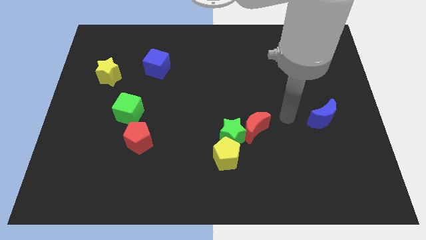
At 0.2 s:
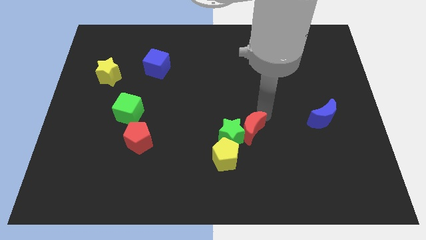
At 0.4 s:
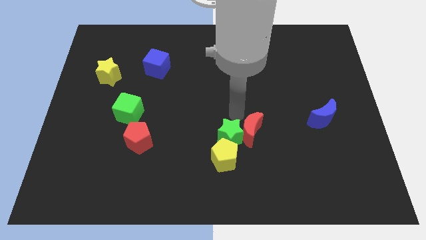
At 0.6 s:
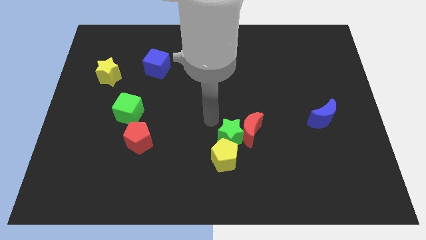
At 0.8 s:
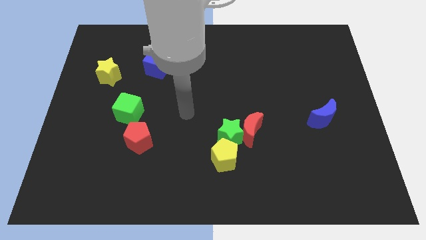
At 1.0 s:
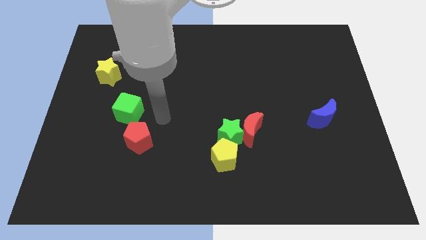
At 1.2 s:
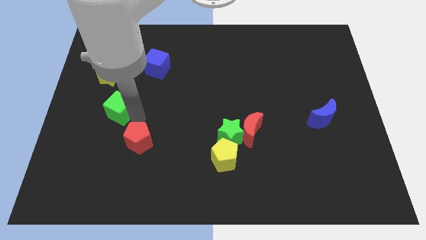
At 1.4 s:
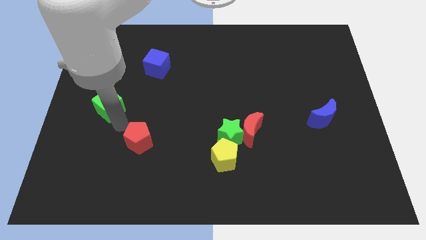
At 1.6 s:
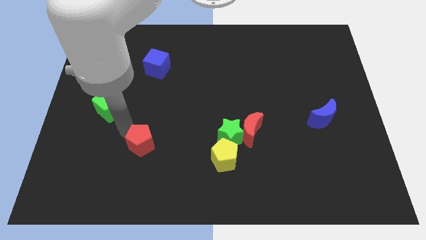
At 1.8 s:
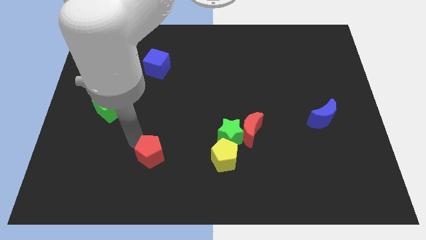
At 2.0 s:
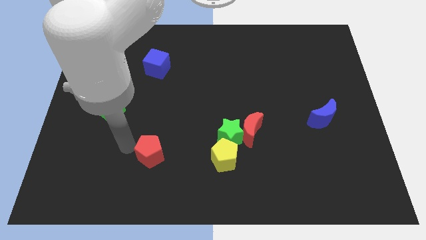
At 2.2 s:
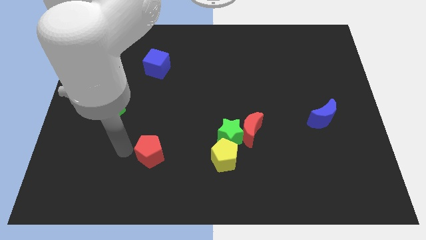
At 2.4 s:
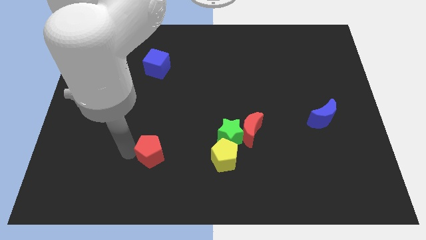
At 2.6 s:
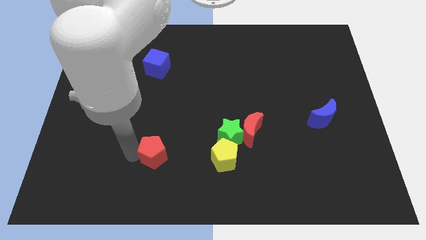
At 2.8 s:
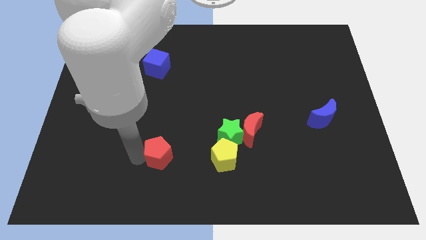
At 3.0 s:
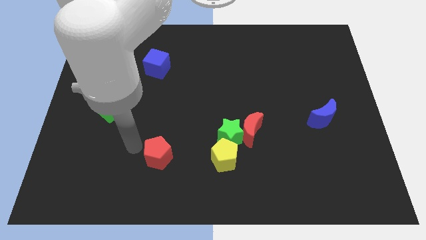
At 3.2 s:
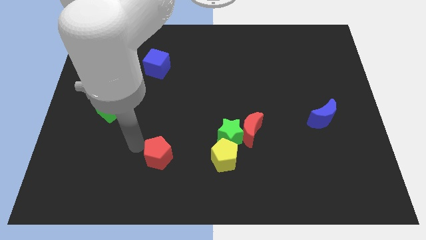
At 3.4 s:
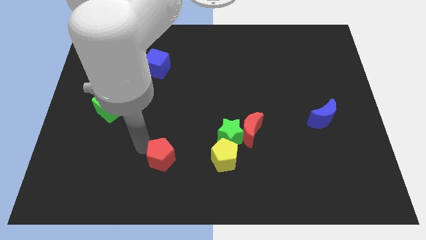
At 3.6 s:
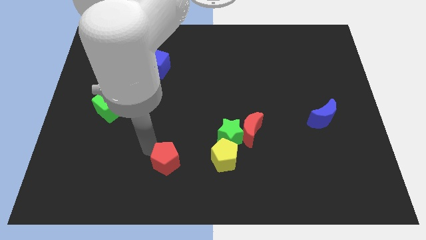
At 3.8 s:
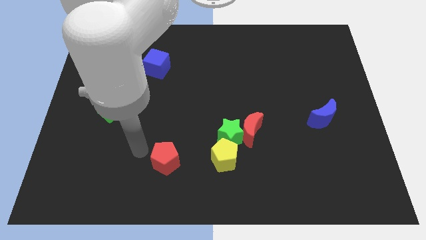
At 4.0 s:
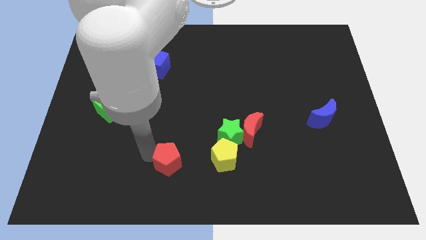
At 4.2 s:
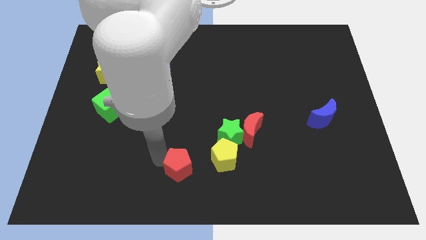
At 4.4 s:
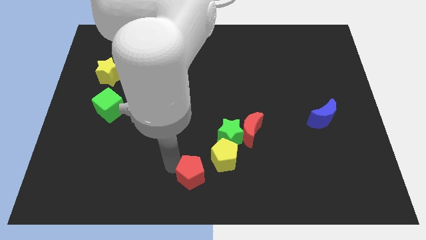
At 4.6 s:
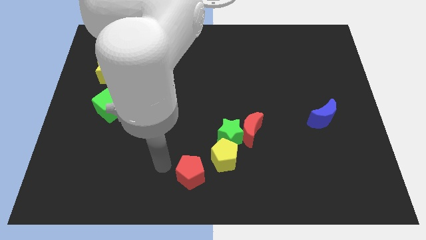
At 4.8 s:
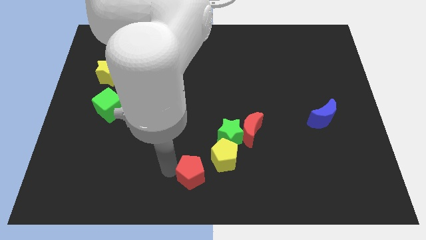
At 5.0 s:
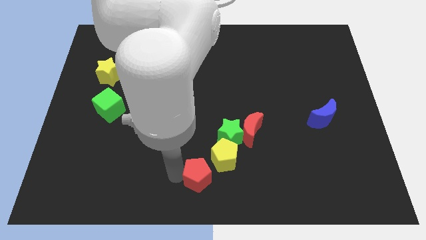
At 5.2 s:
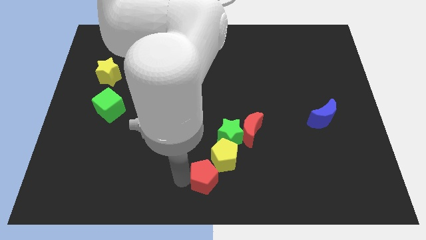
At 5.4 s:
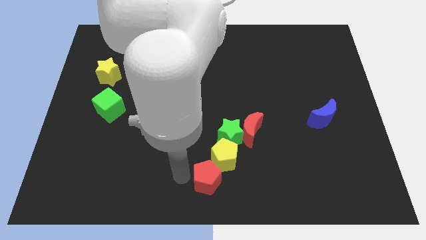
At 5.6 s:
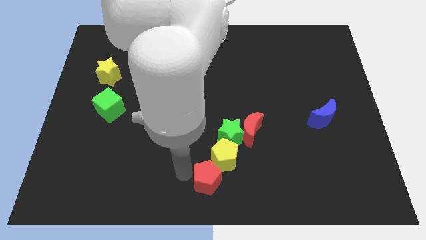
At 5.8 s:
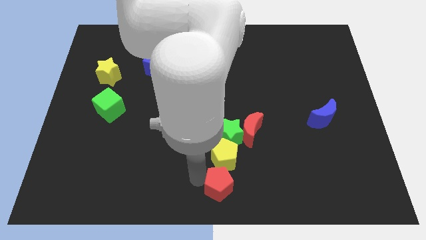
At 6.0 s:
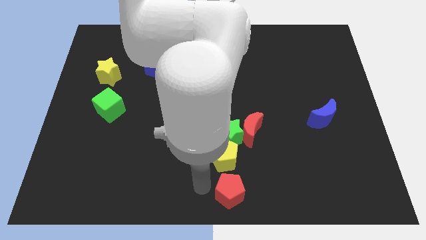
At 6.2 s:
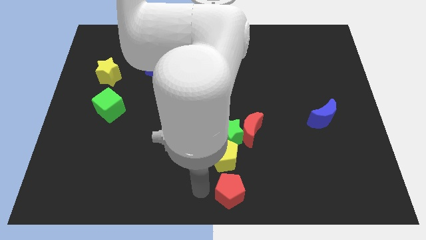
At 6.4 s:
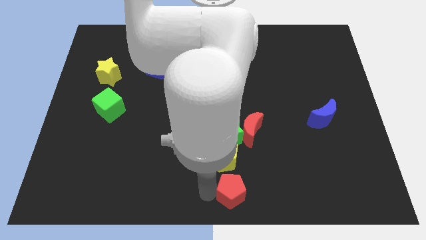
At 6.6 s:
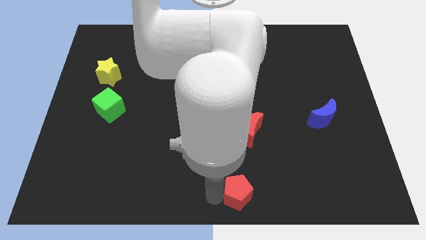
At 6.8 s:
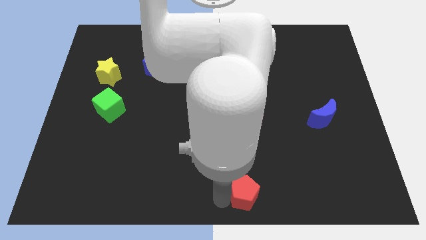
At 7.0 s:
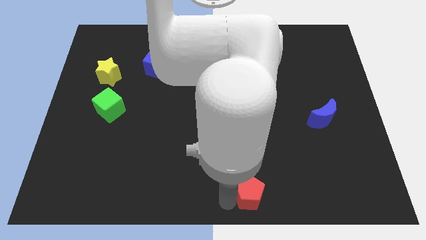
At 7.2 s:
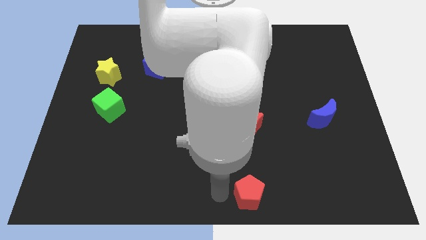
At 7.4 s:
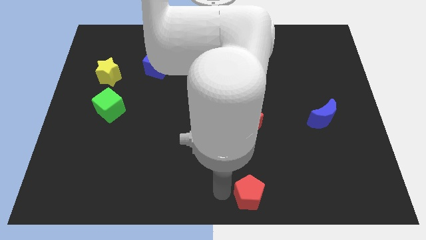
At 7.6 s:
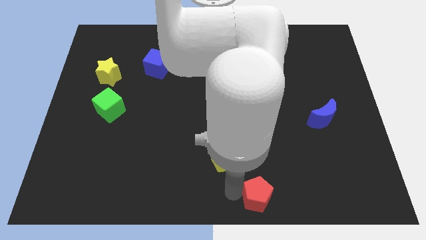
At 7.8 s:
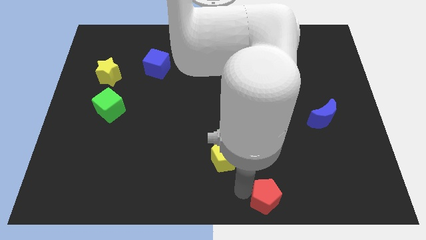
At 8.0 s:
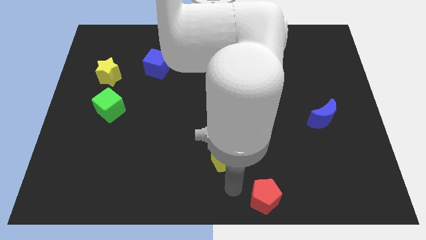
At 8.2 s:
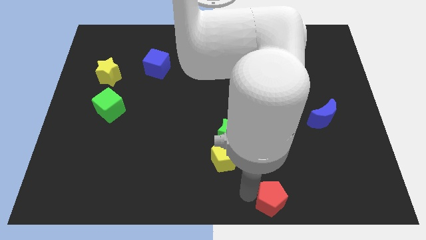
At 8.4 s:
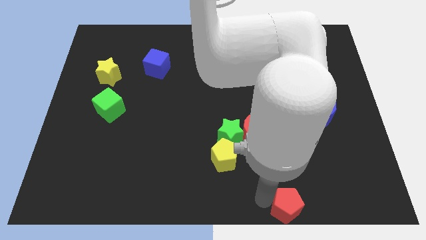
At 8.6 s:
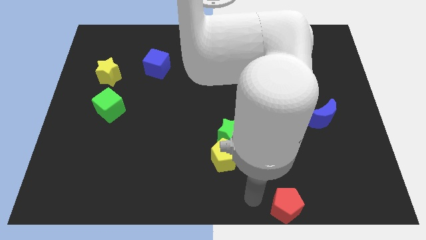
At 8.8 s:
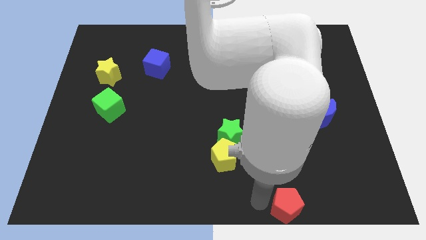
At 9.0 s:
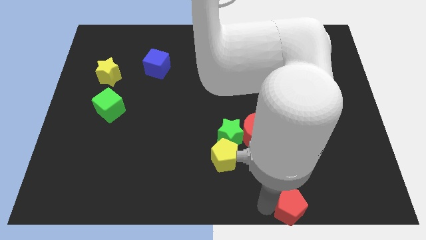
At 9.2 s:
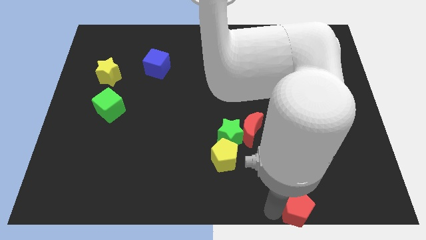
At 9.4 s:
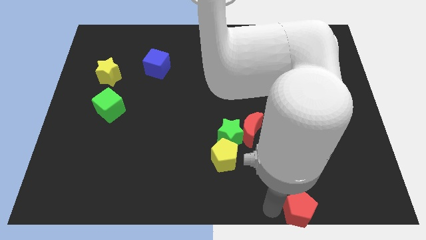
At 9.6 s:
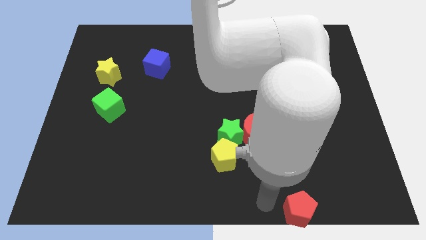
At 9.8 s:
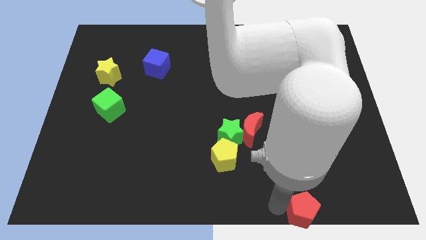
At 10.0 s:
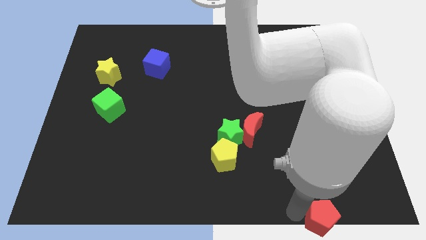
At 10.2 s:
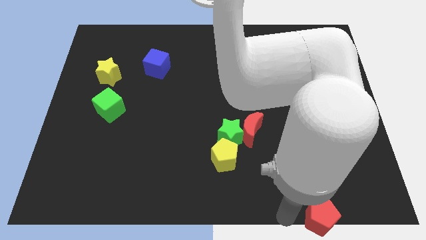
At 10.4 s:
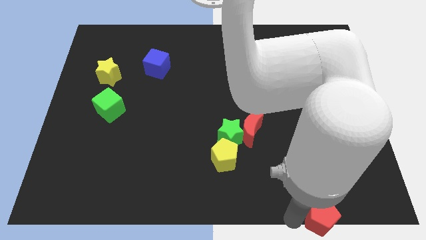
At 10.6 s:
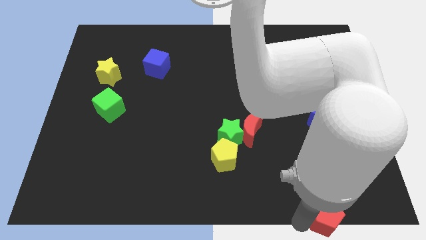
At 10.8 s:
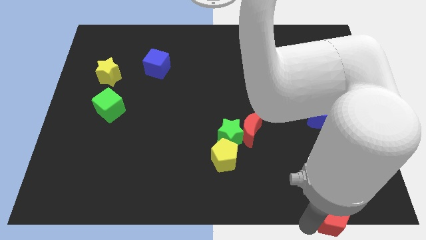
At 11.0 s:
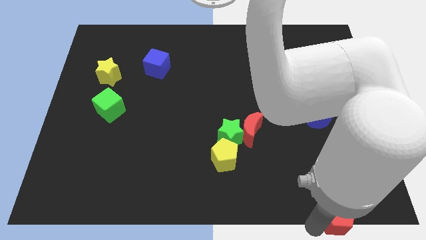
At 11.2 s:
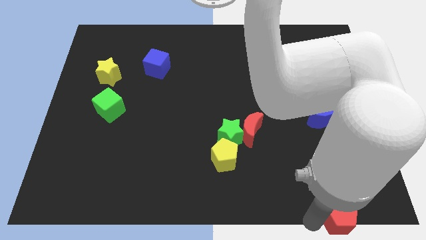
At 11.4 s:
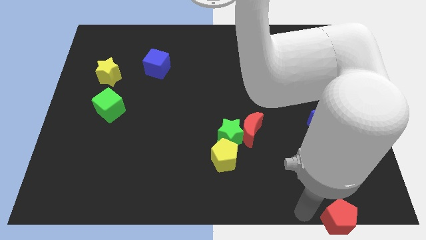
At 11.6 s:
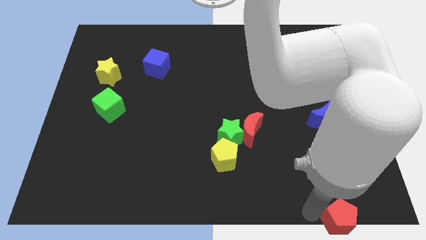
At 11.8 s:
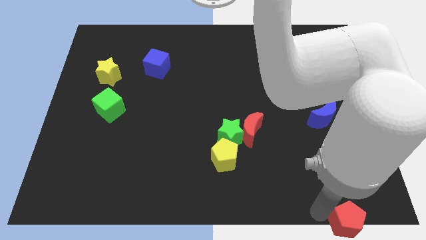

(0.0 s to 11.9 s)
put the red pentagon to the bottom right
